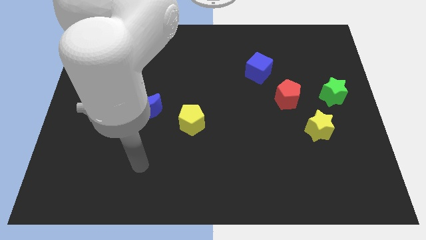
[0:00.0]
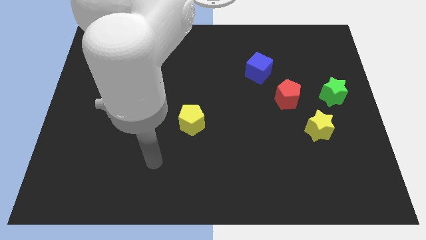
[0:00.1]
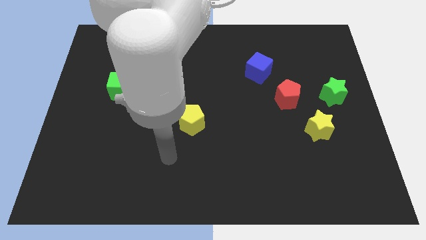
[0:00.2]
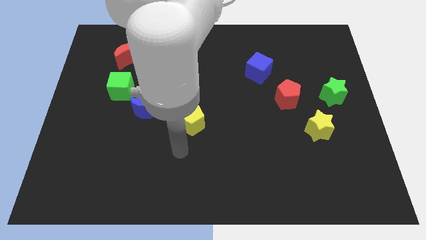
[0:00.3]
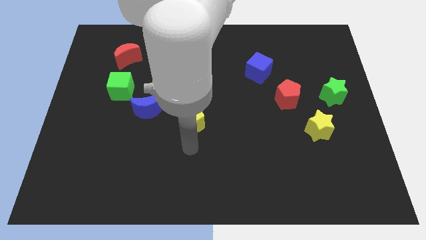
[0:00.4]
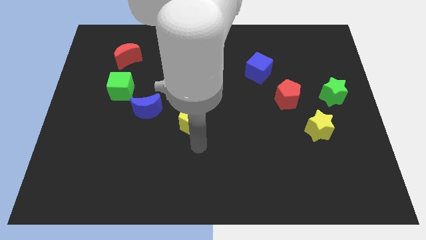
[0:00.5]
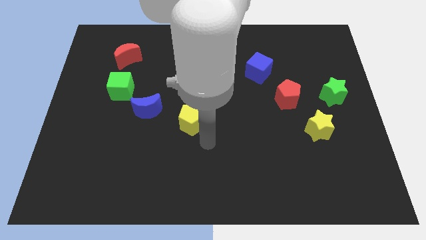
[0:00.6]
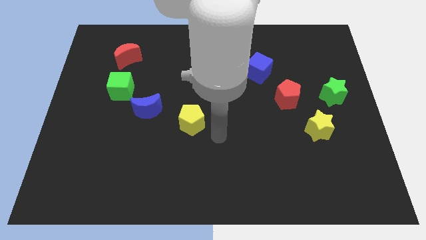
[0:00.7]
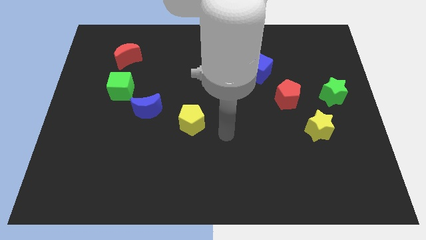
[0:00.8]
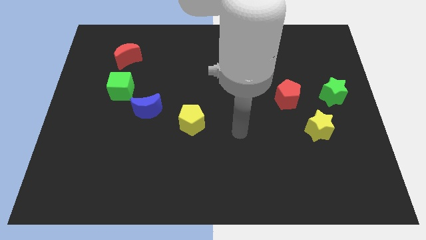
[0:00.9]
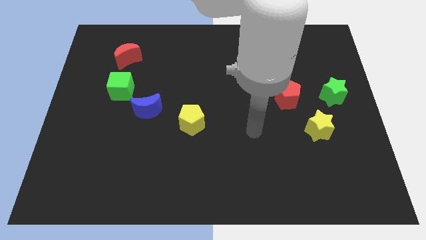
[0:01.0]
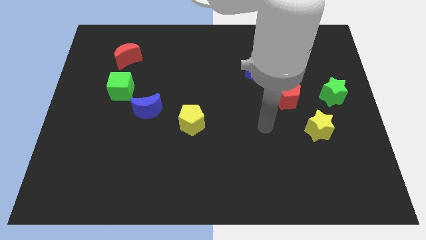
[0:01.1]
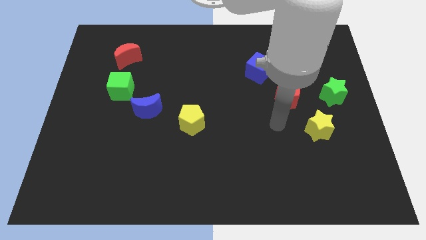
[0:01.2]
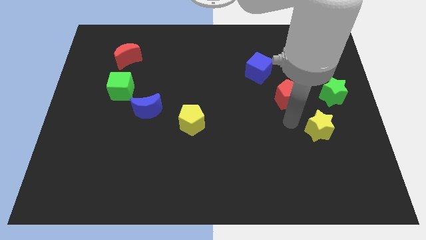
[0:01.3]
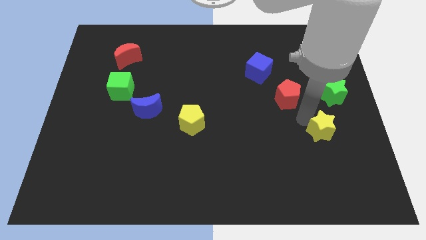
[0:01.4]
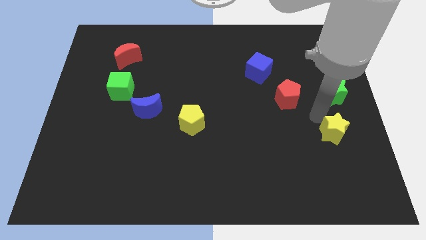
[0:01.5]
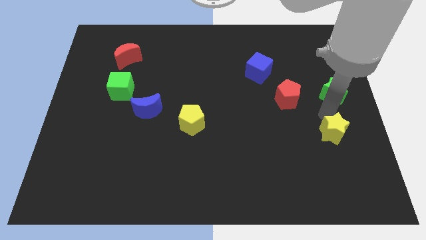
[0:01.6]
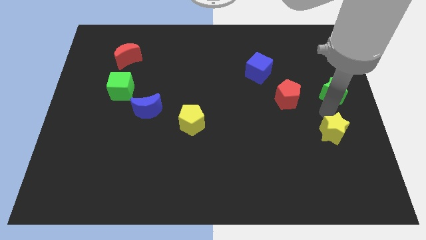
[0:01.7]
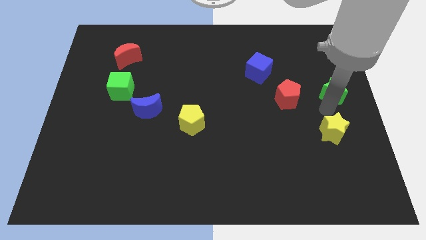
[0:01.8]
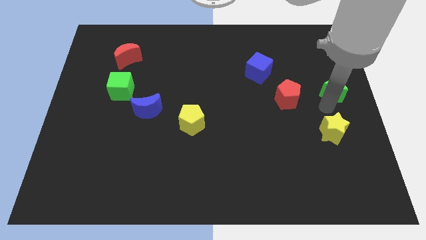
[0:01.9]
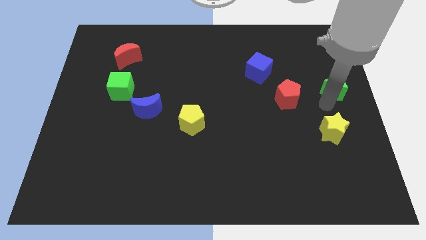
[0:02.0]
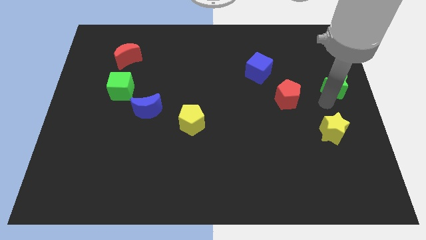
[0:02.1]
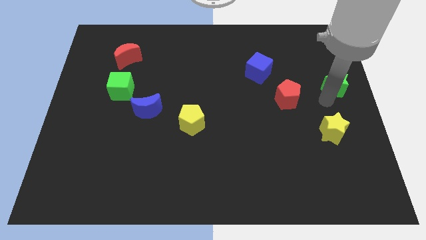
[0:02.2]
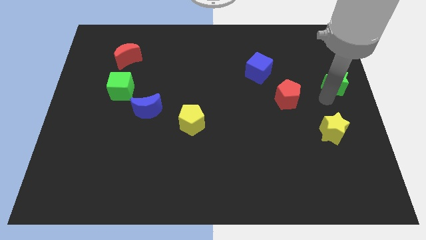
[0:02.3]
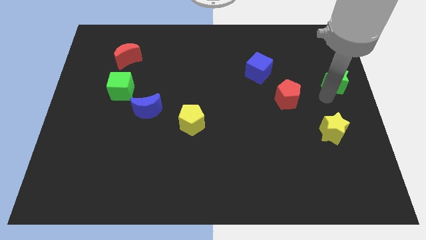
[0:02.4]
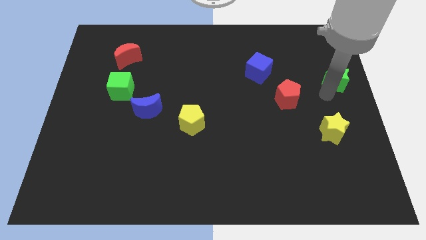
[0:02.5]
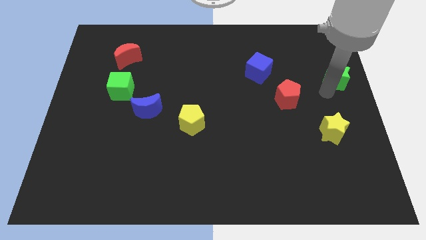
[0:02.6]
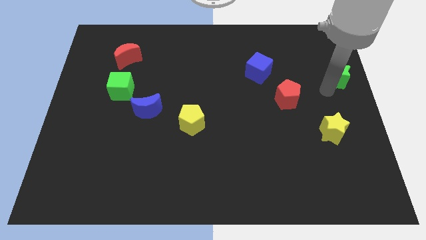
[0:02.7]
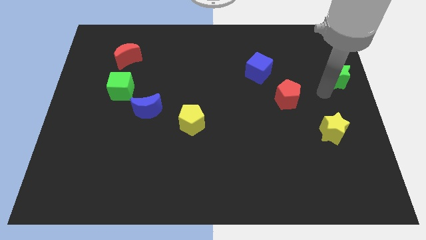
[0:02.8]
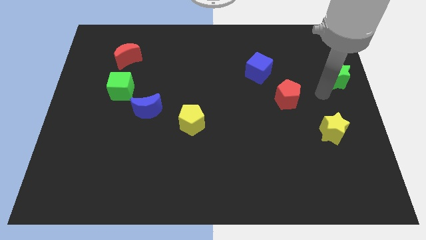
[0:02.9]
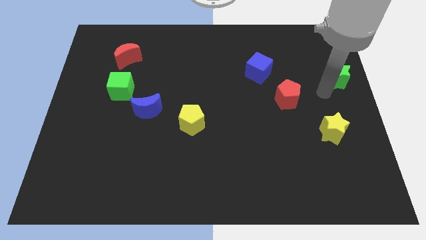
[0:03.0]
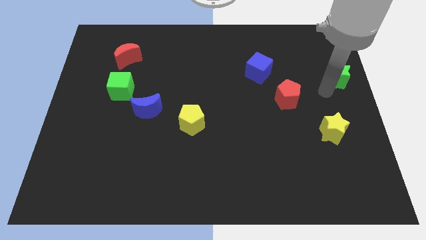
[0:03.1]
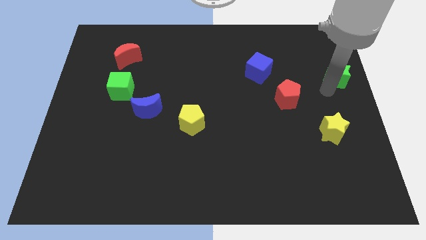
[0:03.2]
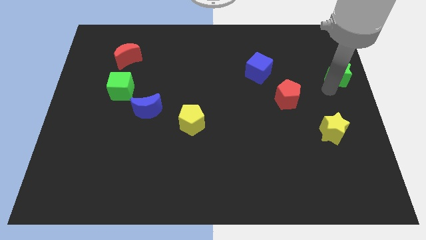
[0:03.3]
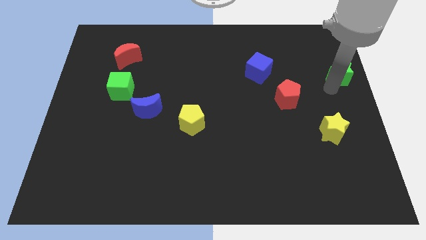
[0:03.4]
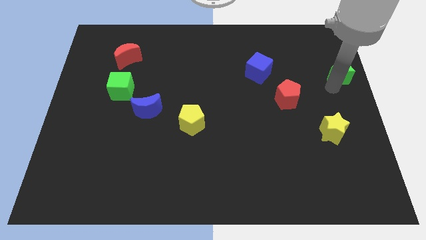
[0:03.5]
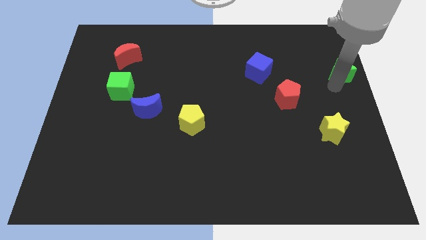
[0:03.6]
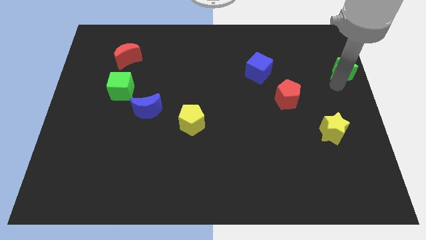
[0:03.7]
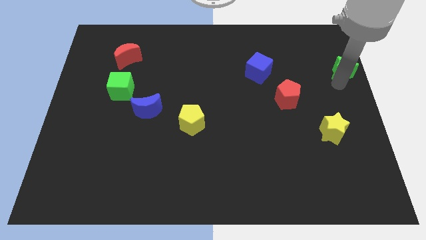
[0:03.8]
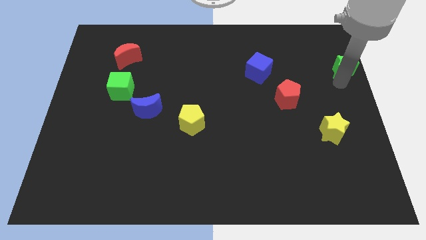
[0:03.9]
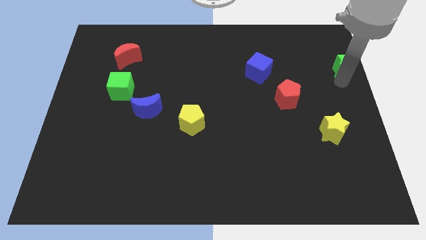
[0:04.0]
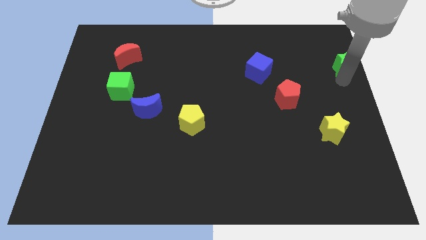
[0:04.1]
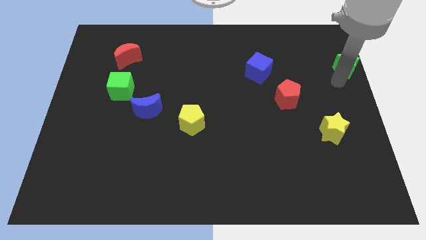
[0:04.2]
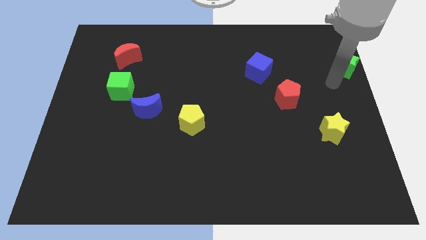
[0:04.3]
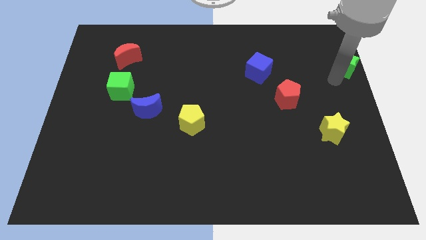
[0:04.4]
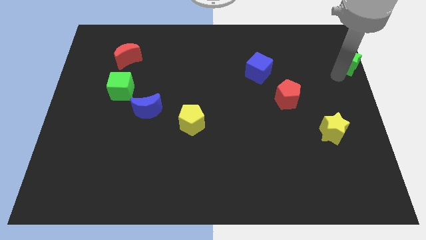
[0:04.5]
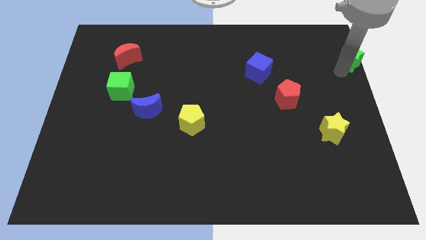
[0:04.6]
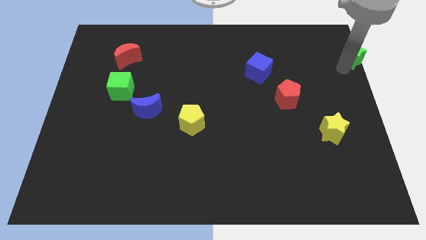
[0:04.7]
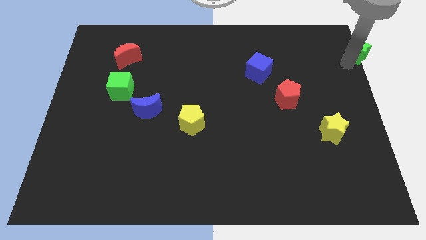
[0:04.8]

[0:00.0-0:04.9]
slide the green star to the top right

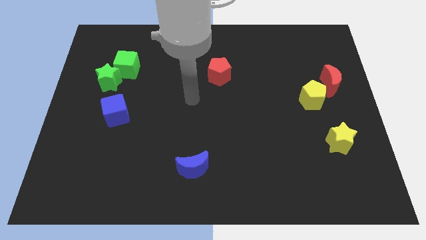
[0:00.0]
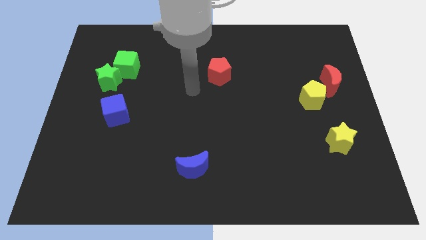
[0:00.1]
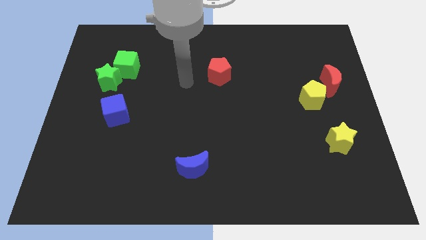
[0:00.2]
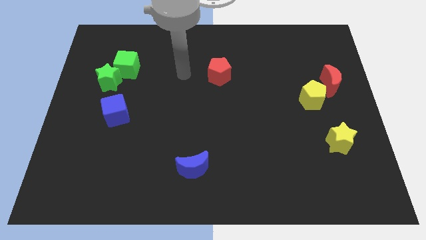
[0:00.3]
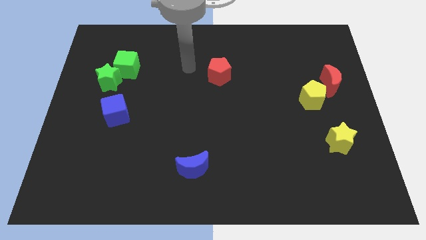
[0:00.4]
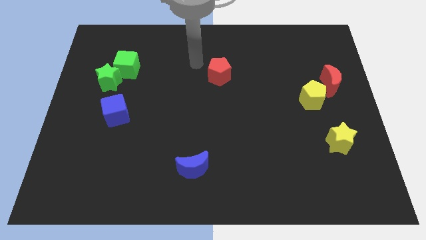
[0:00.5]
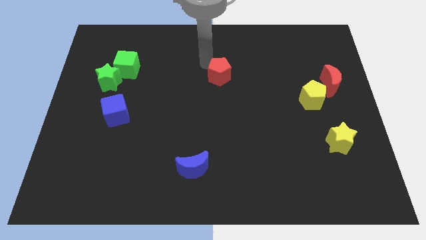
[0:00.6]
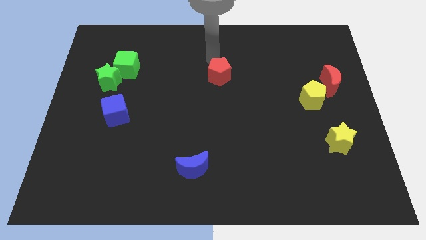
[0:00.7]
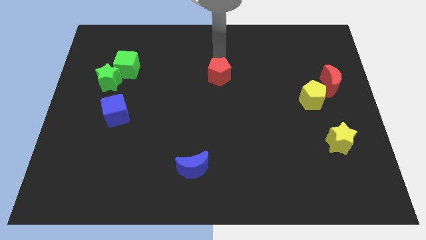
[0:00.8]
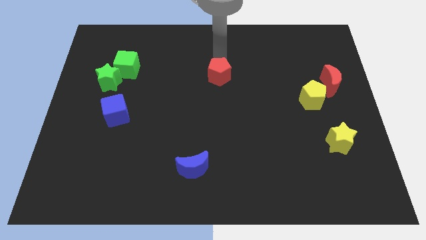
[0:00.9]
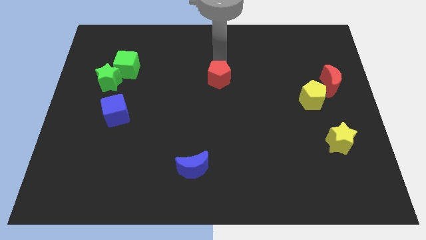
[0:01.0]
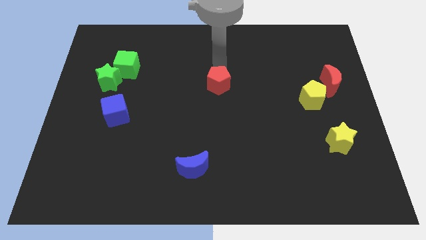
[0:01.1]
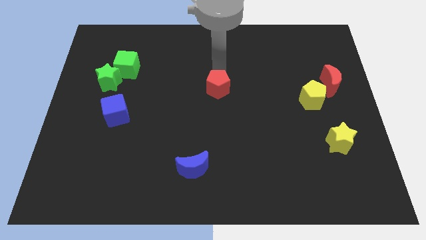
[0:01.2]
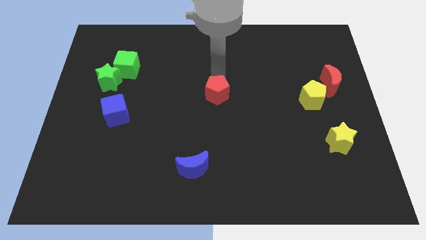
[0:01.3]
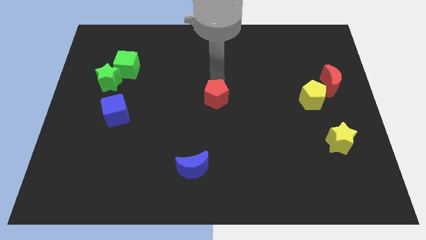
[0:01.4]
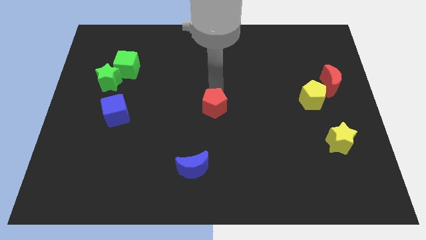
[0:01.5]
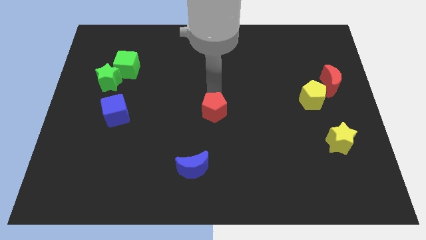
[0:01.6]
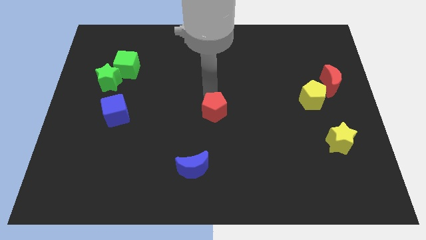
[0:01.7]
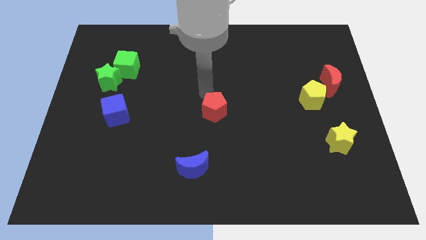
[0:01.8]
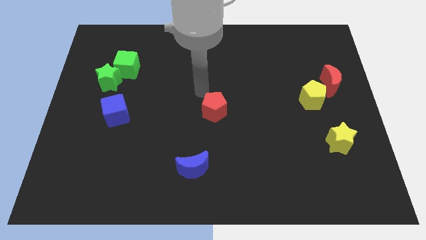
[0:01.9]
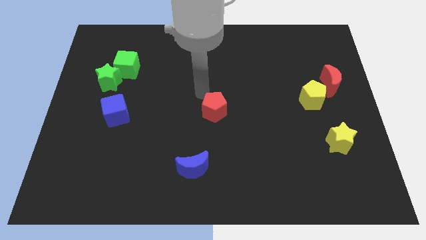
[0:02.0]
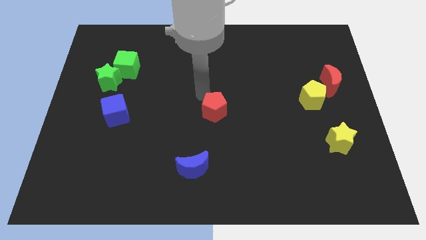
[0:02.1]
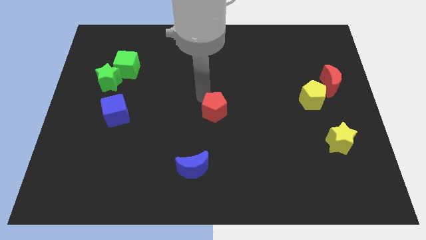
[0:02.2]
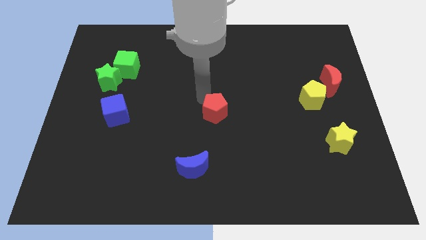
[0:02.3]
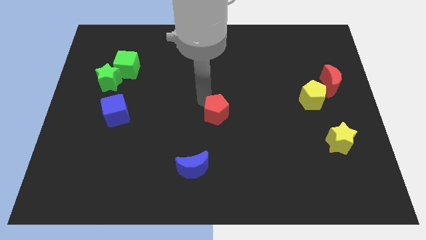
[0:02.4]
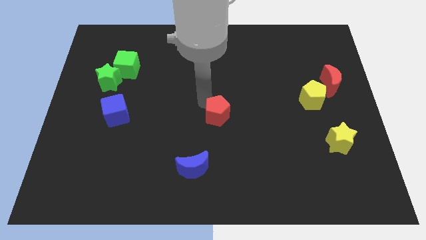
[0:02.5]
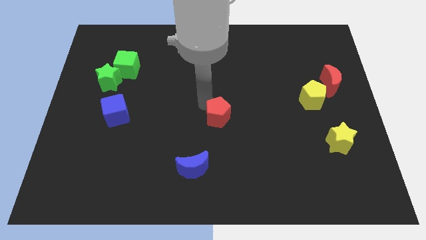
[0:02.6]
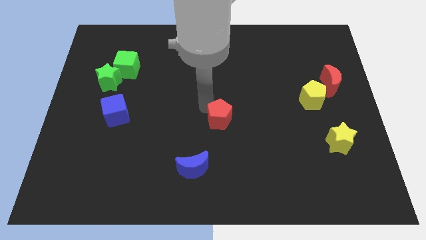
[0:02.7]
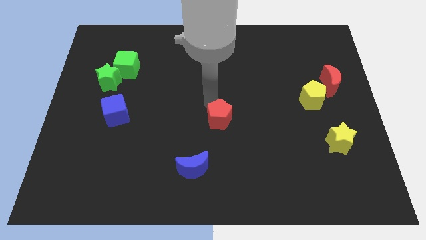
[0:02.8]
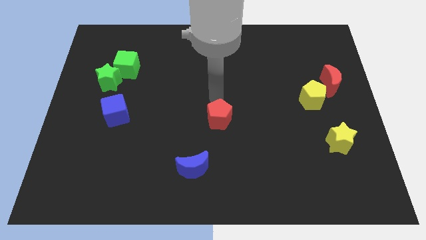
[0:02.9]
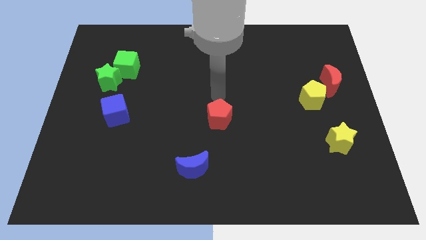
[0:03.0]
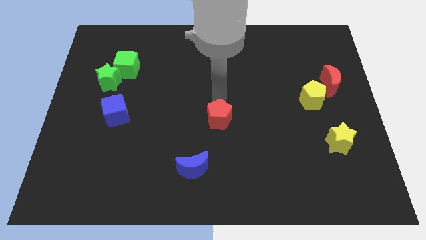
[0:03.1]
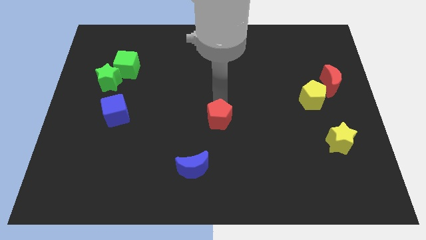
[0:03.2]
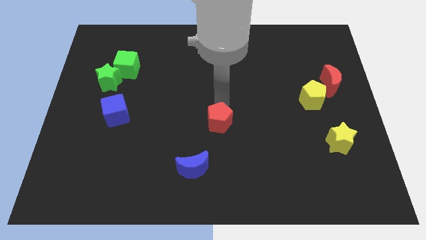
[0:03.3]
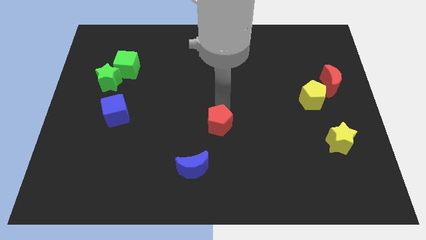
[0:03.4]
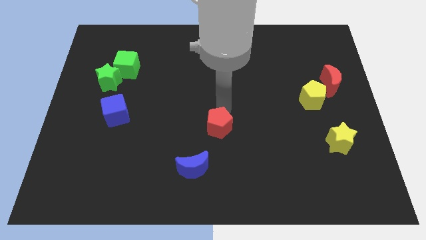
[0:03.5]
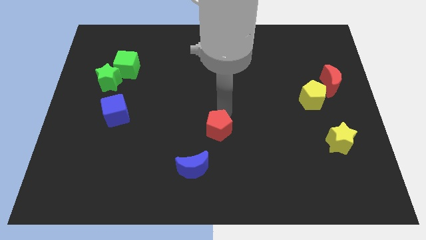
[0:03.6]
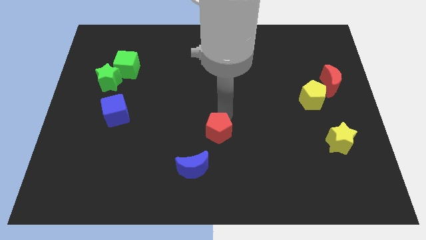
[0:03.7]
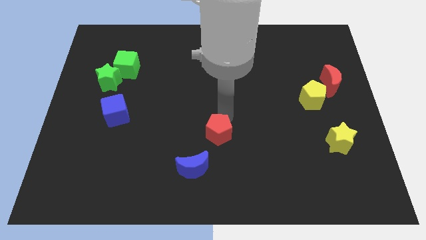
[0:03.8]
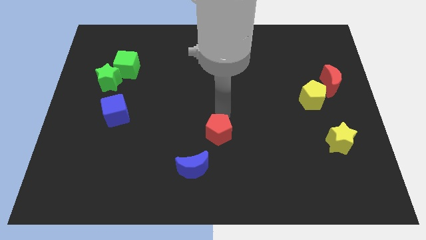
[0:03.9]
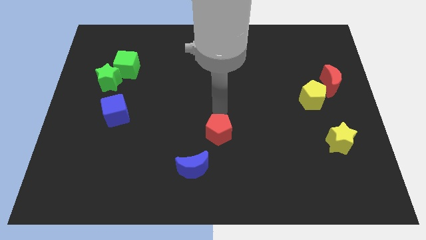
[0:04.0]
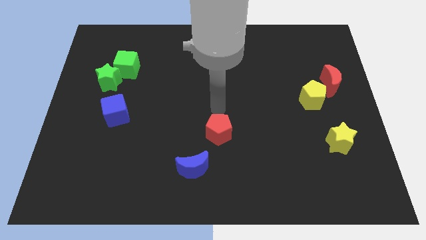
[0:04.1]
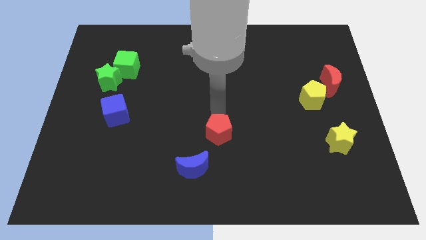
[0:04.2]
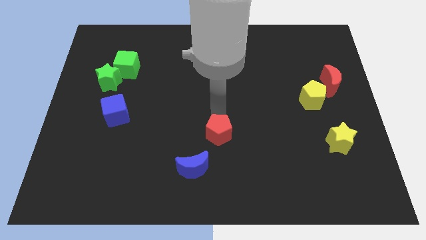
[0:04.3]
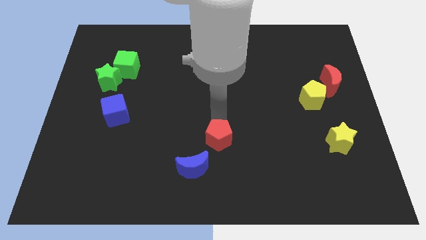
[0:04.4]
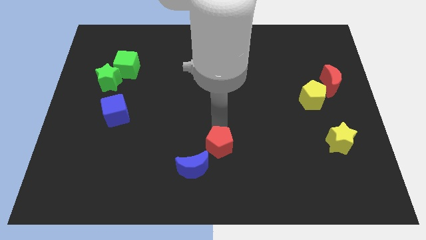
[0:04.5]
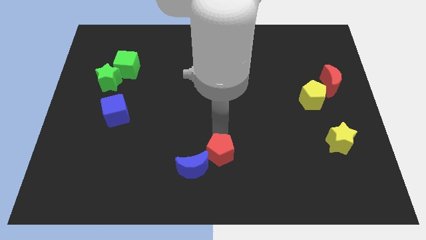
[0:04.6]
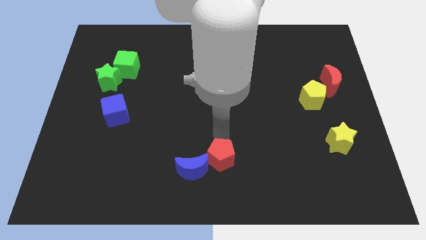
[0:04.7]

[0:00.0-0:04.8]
slide the red pentagon to the bottom side
